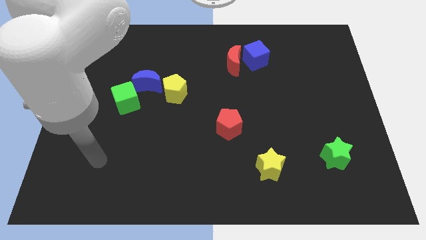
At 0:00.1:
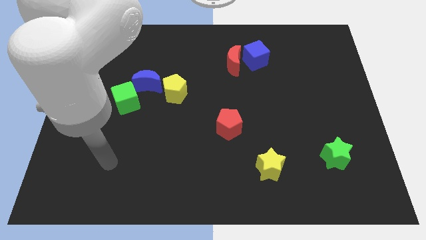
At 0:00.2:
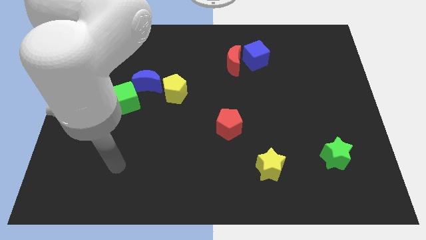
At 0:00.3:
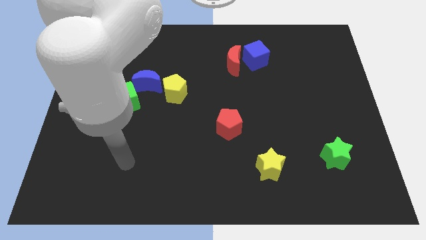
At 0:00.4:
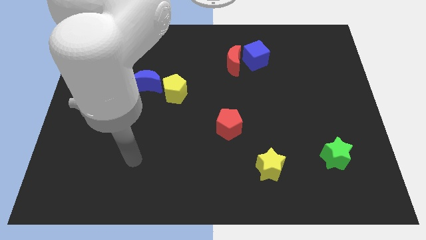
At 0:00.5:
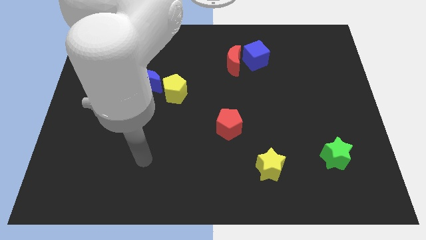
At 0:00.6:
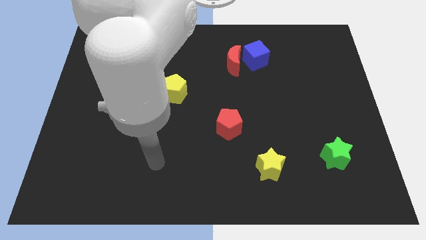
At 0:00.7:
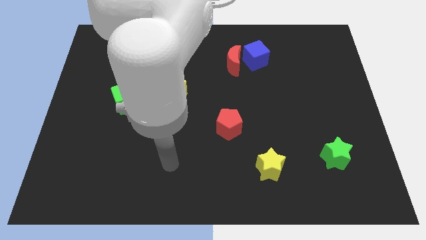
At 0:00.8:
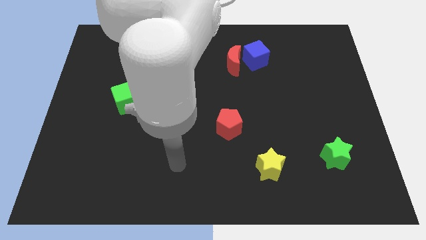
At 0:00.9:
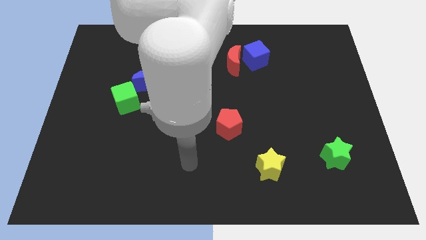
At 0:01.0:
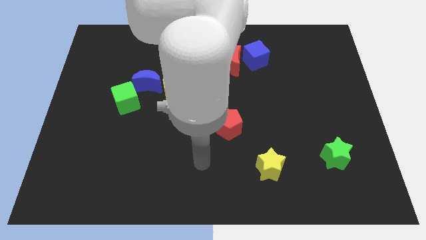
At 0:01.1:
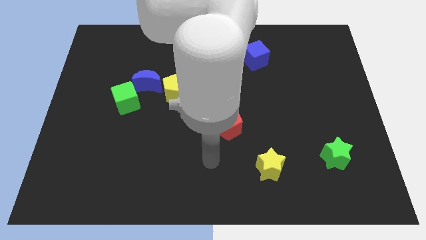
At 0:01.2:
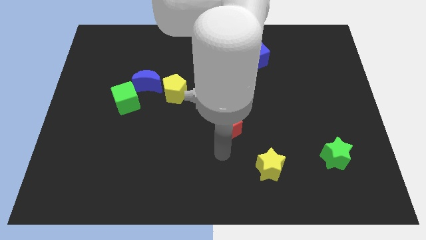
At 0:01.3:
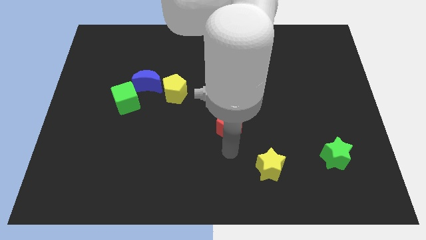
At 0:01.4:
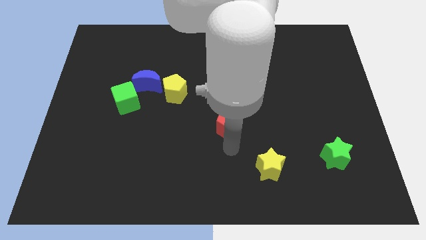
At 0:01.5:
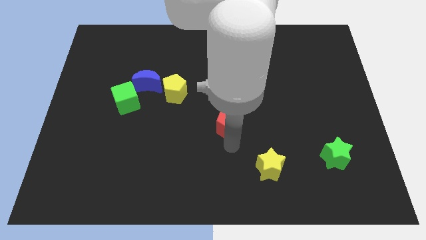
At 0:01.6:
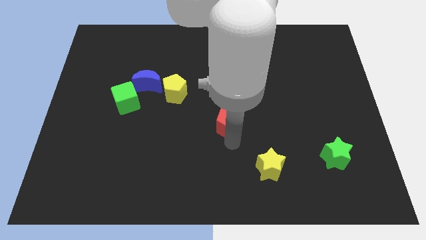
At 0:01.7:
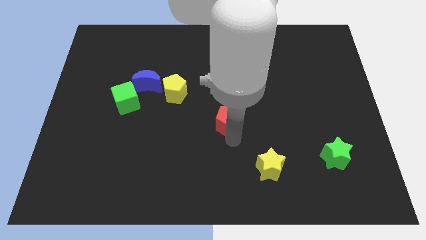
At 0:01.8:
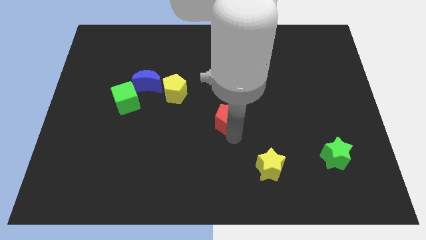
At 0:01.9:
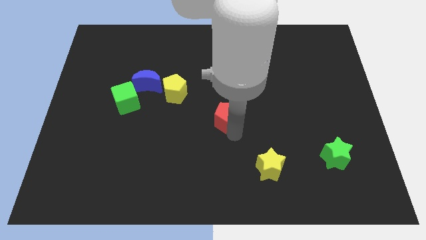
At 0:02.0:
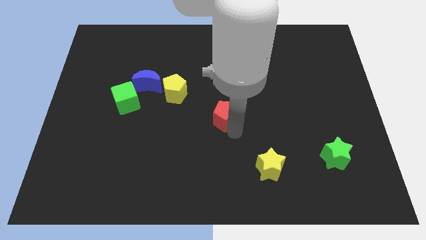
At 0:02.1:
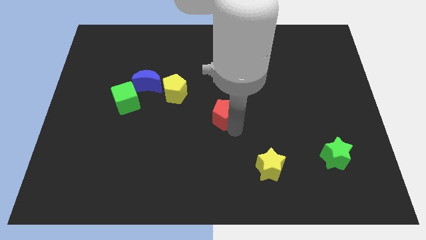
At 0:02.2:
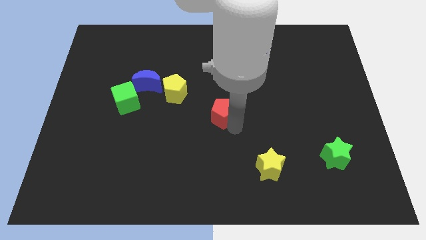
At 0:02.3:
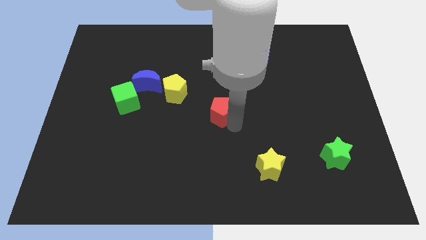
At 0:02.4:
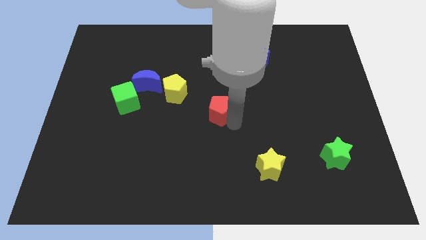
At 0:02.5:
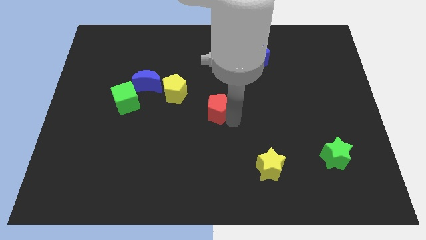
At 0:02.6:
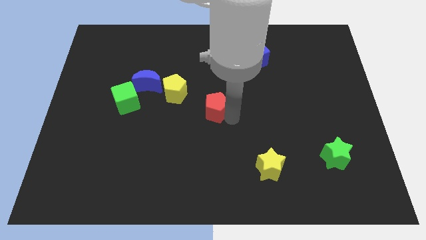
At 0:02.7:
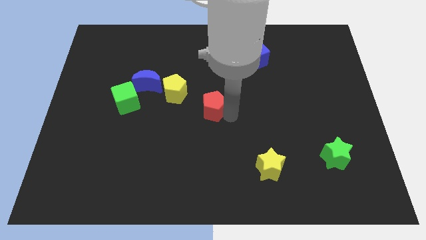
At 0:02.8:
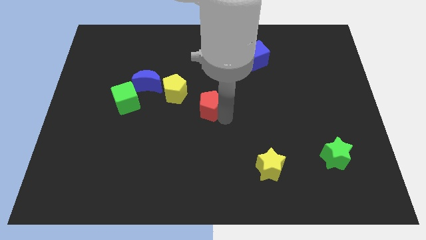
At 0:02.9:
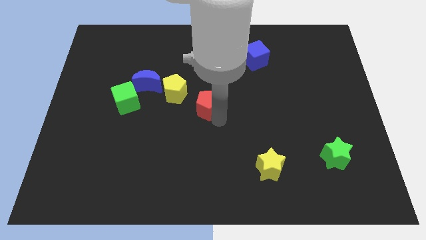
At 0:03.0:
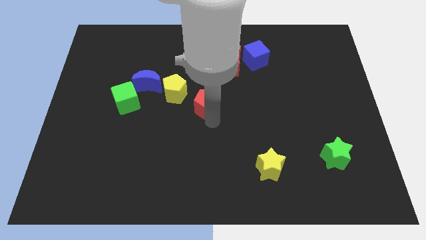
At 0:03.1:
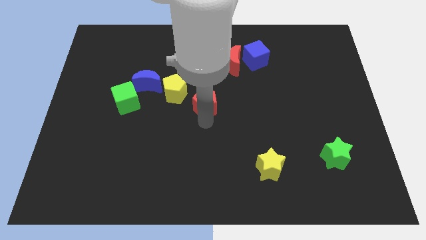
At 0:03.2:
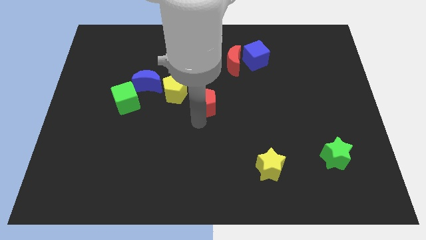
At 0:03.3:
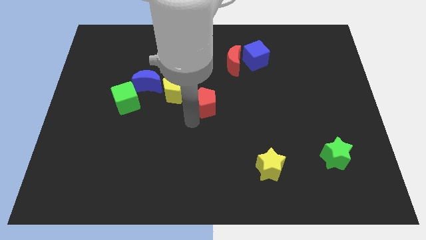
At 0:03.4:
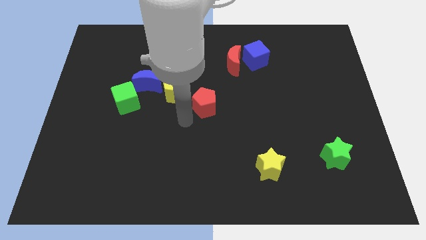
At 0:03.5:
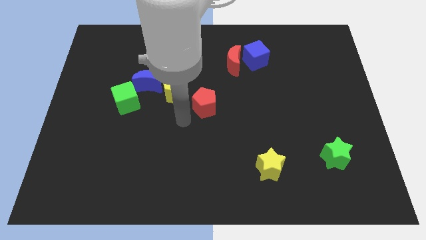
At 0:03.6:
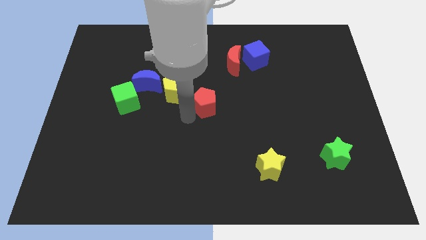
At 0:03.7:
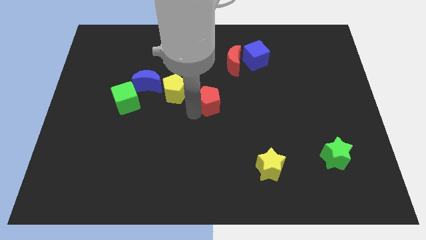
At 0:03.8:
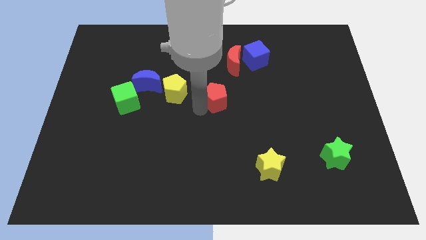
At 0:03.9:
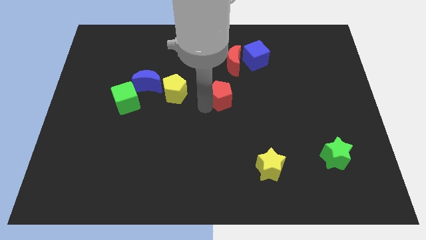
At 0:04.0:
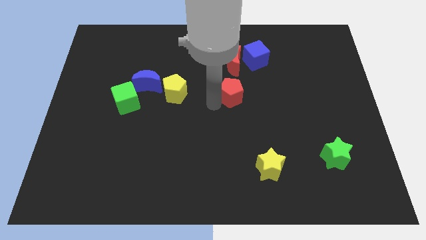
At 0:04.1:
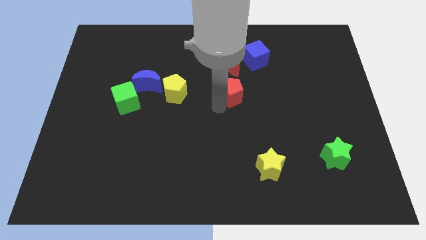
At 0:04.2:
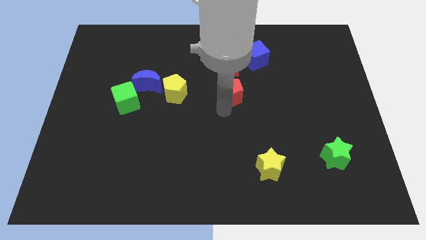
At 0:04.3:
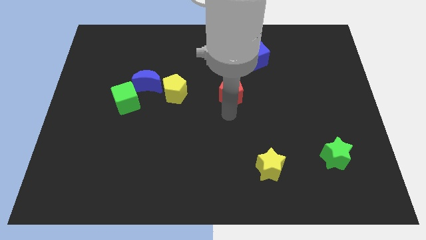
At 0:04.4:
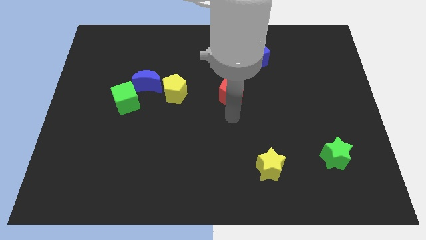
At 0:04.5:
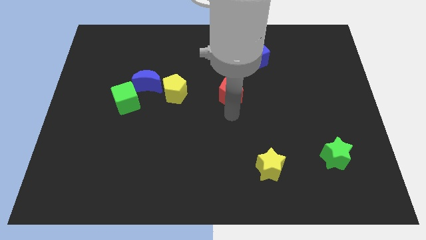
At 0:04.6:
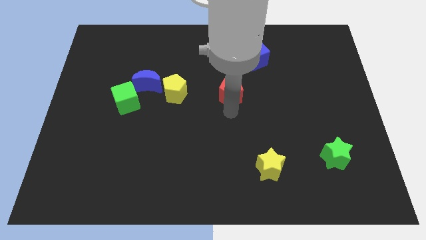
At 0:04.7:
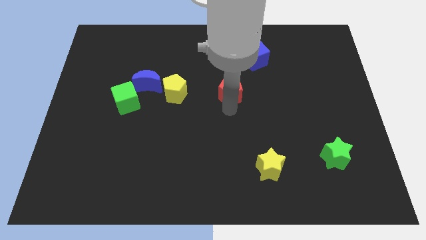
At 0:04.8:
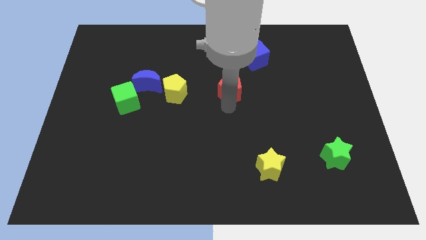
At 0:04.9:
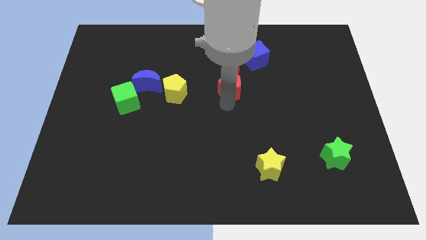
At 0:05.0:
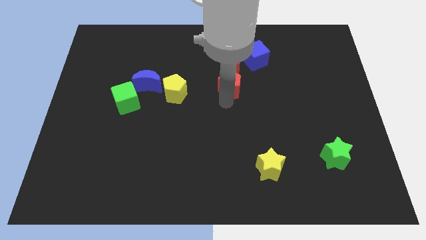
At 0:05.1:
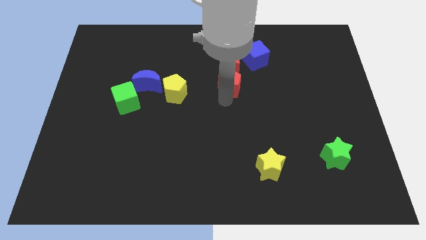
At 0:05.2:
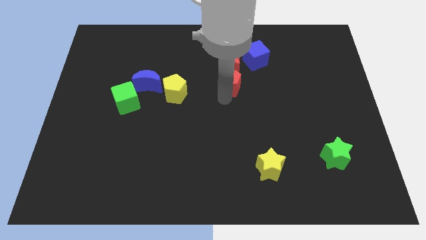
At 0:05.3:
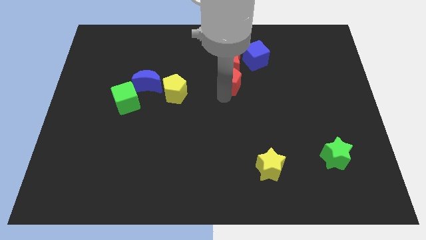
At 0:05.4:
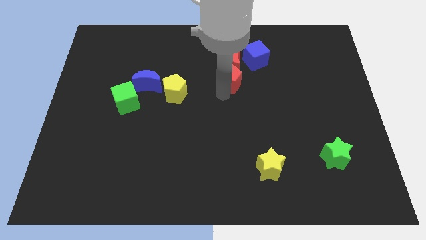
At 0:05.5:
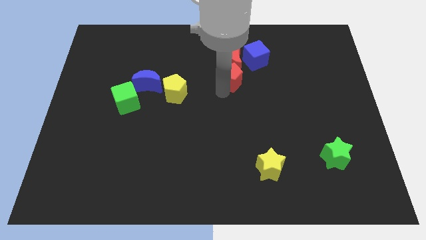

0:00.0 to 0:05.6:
move the red pentagon to the red moon

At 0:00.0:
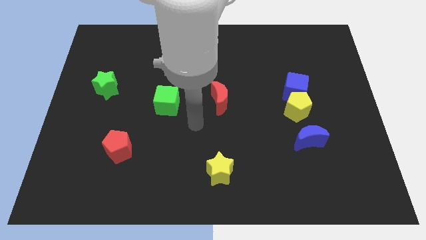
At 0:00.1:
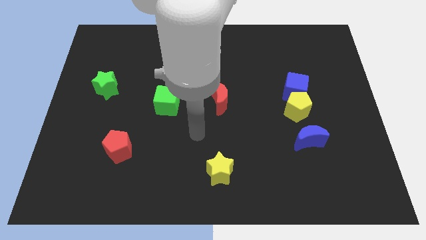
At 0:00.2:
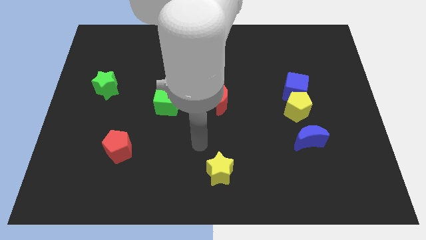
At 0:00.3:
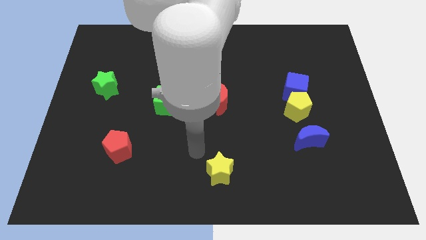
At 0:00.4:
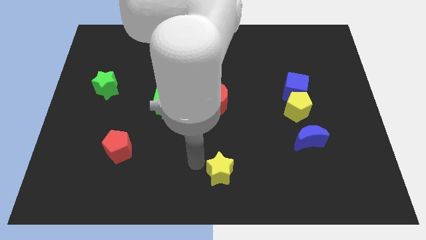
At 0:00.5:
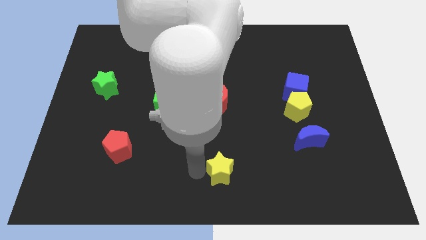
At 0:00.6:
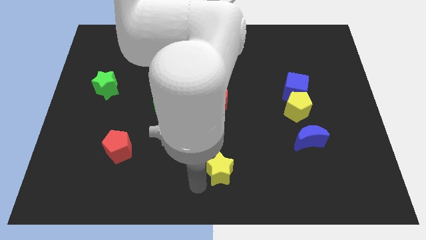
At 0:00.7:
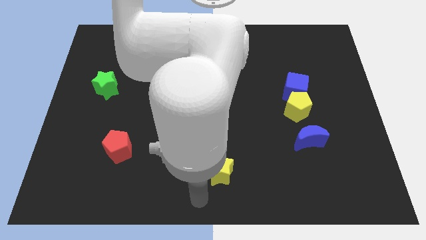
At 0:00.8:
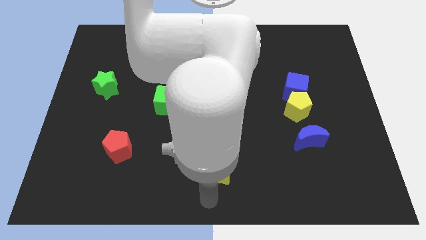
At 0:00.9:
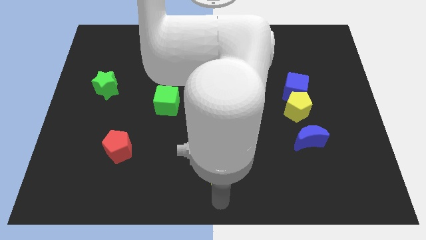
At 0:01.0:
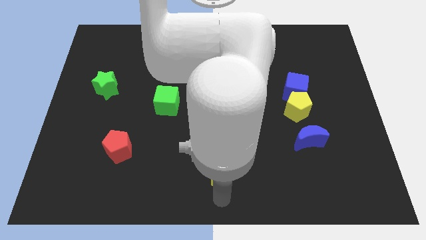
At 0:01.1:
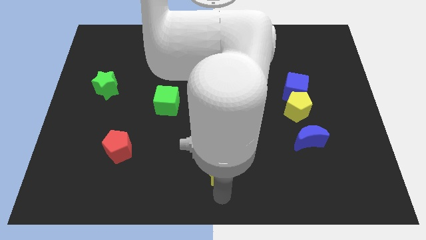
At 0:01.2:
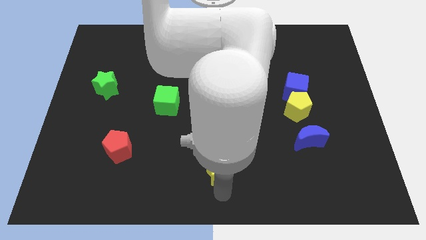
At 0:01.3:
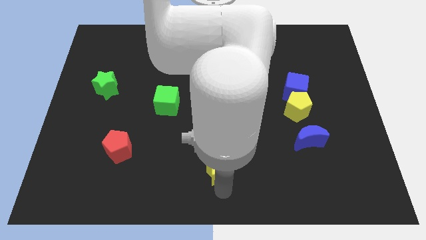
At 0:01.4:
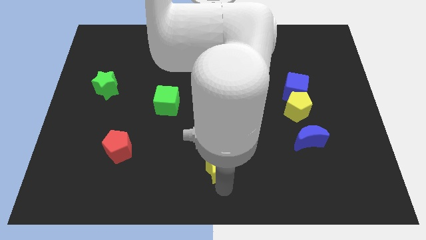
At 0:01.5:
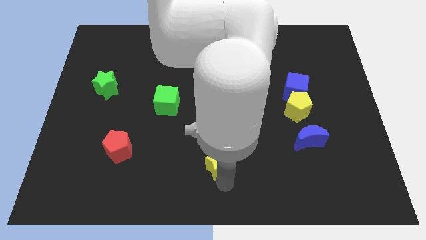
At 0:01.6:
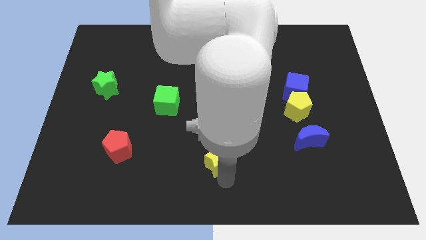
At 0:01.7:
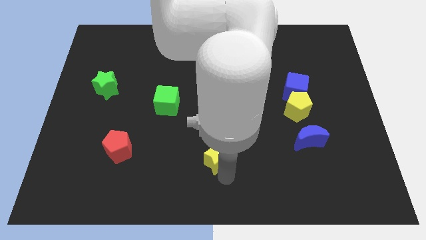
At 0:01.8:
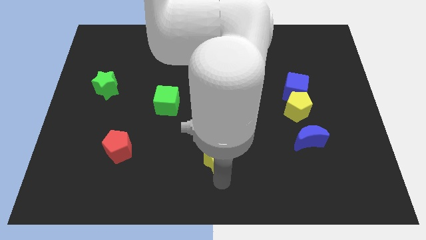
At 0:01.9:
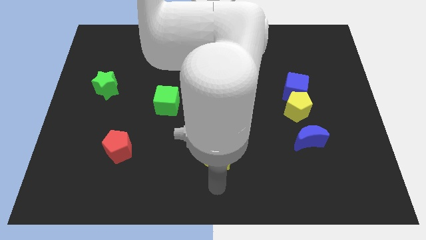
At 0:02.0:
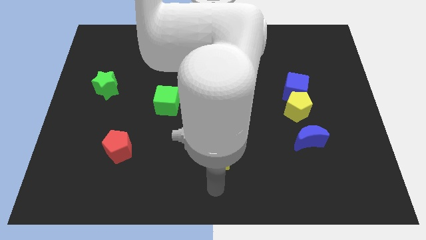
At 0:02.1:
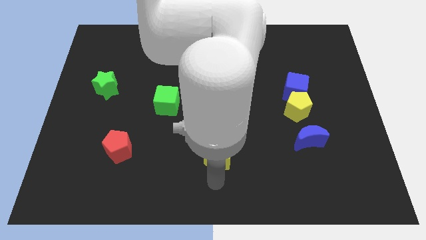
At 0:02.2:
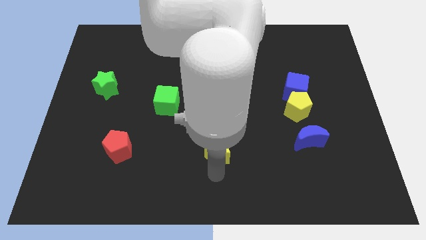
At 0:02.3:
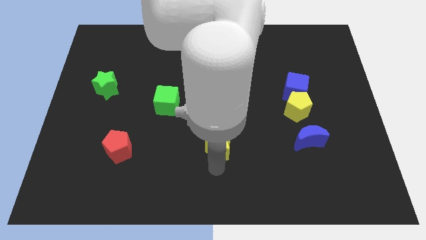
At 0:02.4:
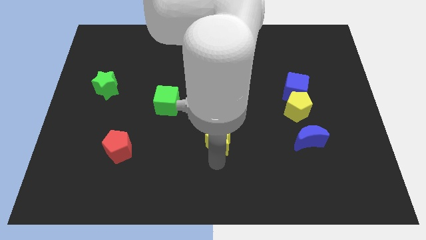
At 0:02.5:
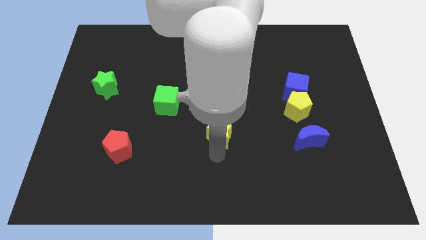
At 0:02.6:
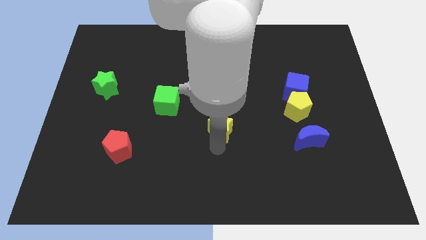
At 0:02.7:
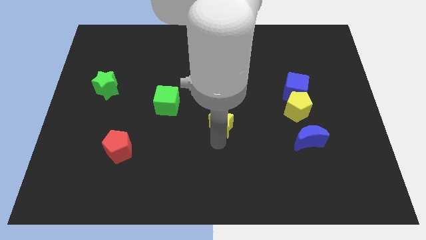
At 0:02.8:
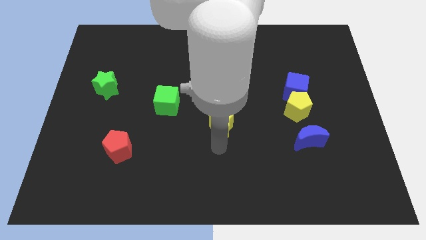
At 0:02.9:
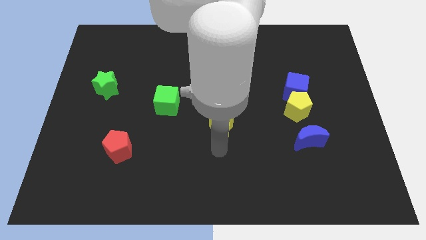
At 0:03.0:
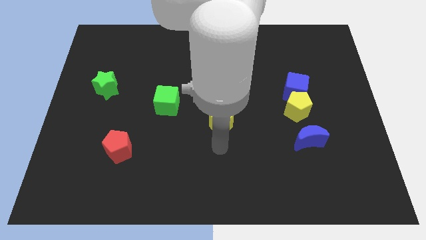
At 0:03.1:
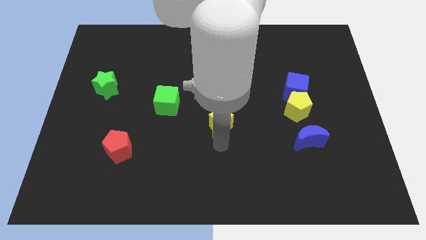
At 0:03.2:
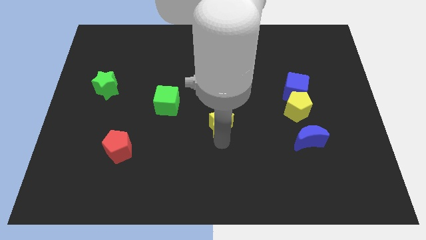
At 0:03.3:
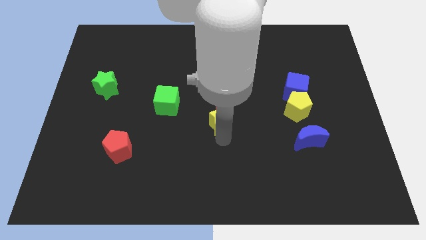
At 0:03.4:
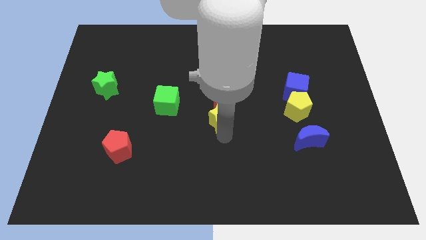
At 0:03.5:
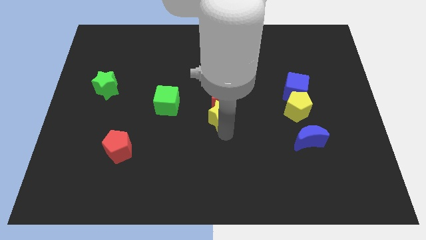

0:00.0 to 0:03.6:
push the yellow star close to the red moon
